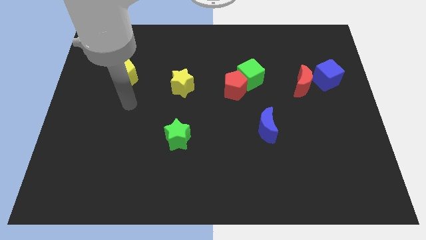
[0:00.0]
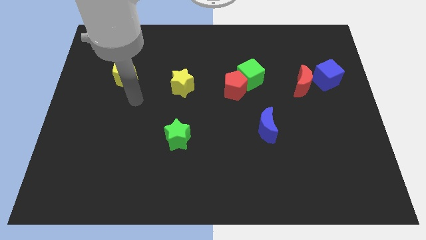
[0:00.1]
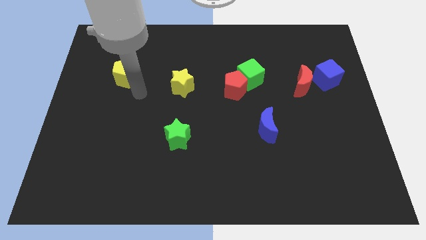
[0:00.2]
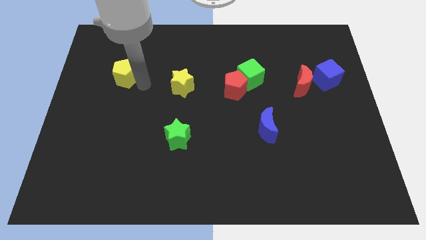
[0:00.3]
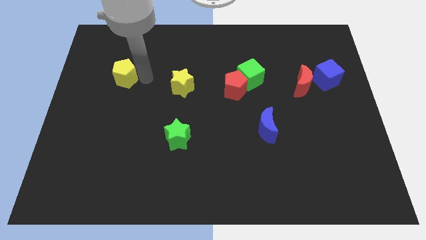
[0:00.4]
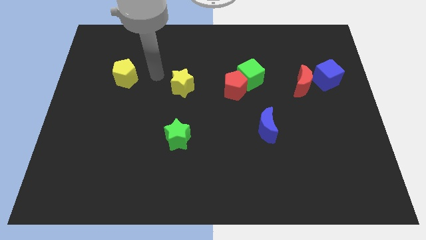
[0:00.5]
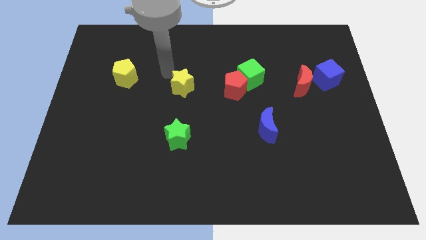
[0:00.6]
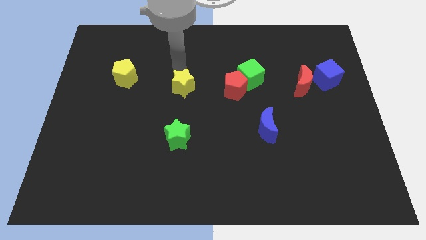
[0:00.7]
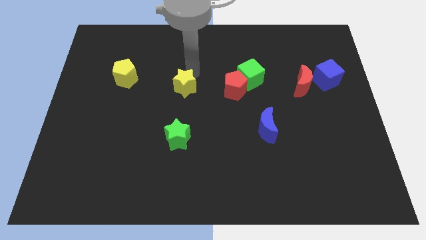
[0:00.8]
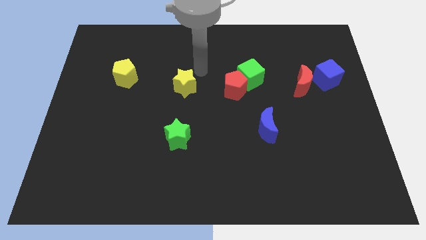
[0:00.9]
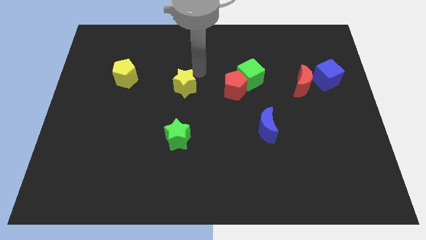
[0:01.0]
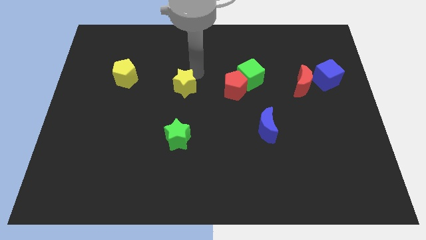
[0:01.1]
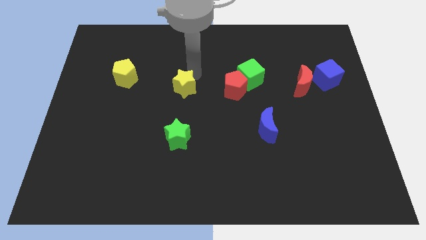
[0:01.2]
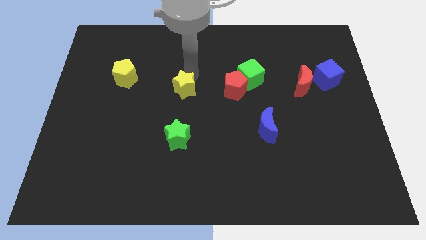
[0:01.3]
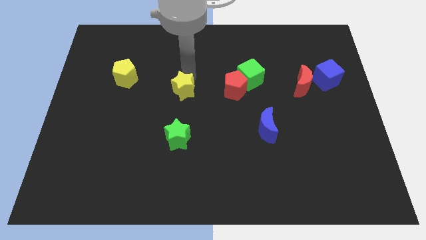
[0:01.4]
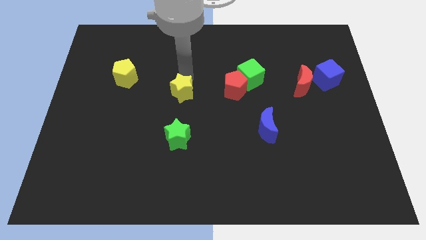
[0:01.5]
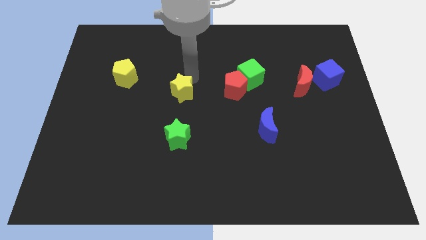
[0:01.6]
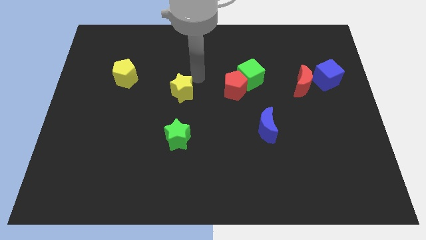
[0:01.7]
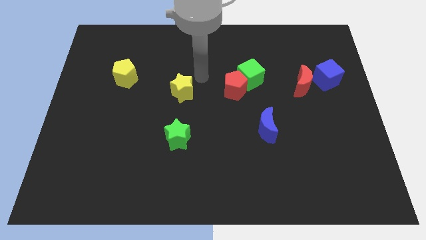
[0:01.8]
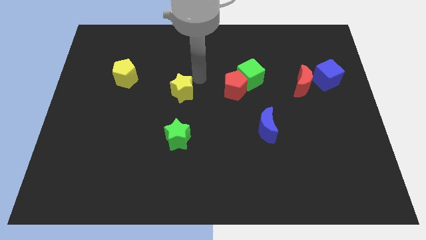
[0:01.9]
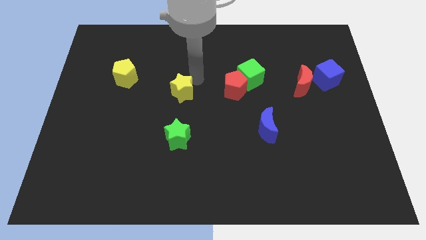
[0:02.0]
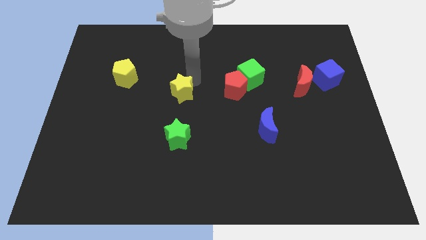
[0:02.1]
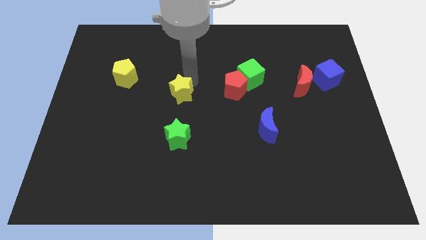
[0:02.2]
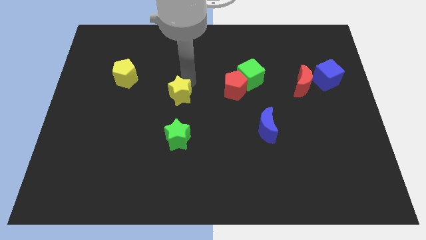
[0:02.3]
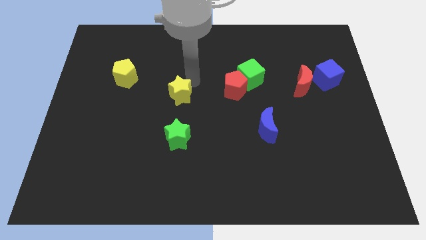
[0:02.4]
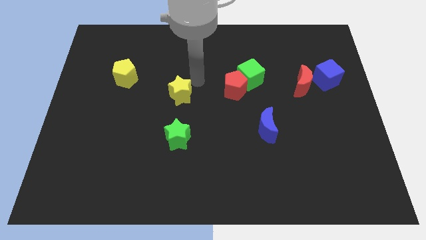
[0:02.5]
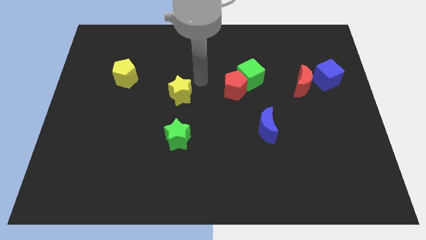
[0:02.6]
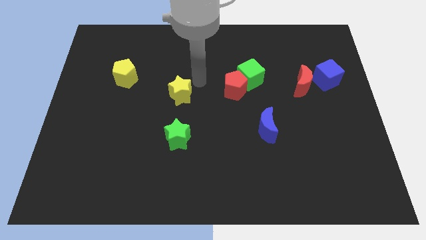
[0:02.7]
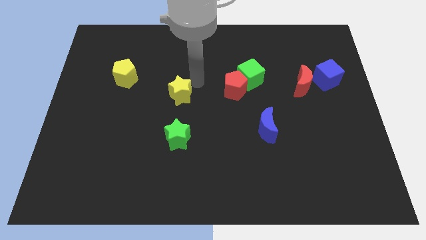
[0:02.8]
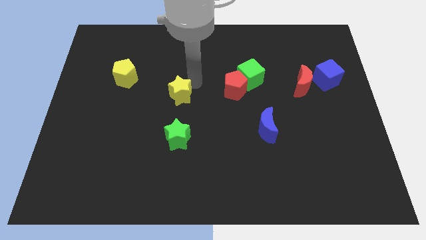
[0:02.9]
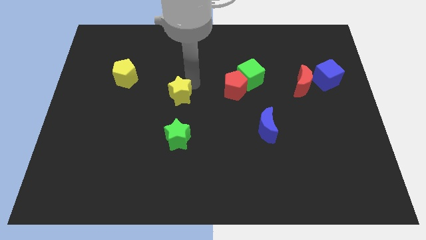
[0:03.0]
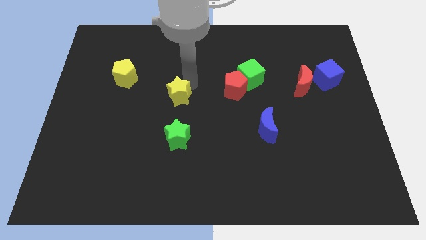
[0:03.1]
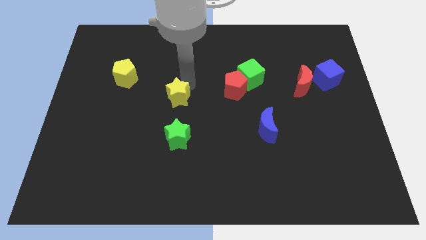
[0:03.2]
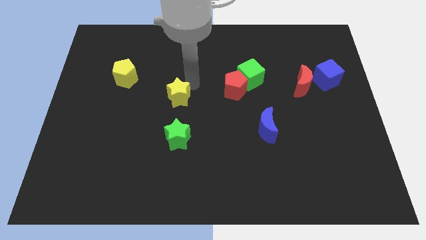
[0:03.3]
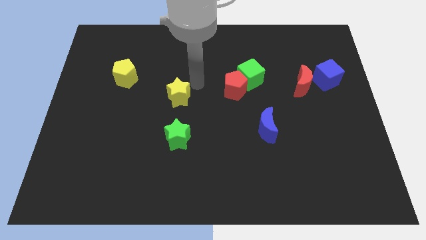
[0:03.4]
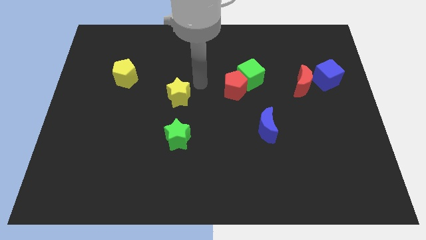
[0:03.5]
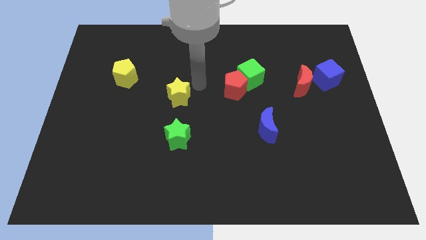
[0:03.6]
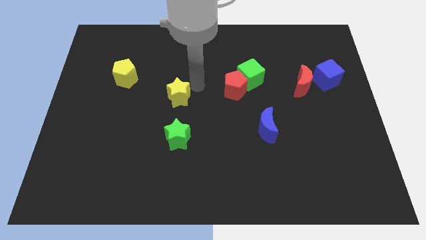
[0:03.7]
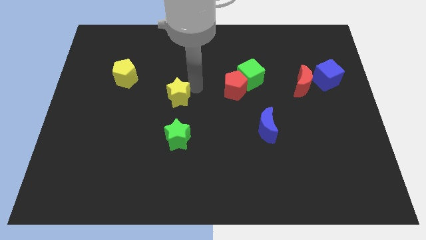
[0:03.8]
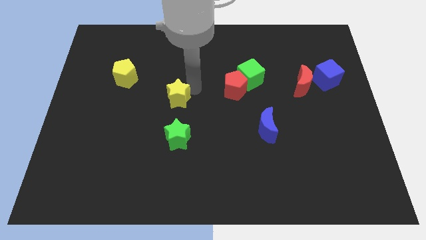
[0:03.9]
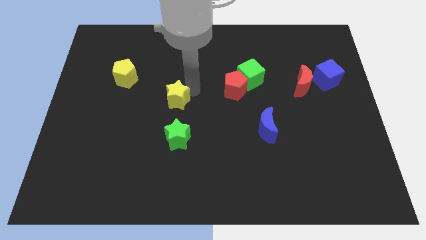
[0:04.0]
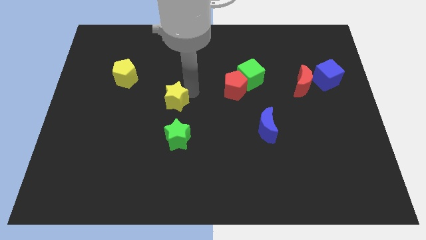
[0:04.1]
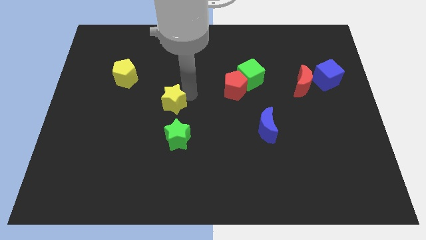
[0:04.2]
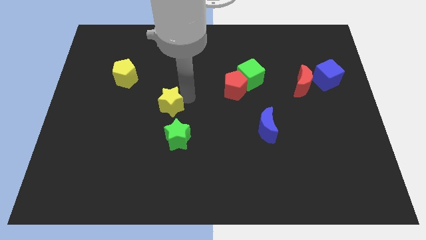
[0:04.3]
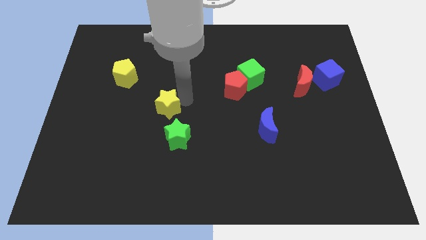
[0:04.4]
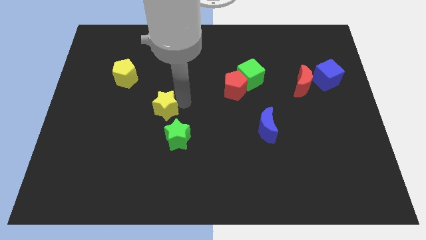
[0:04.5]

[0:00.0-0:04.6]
push the yellow star slightly downwards and then to the left

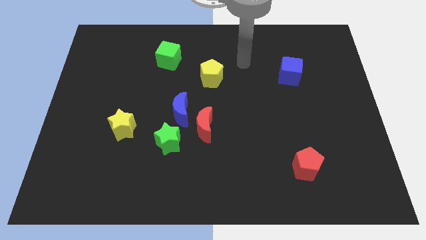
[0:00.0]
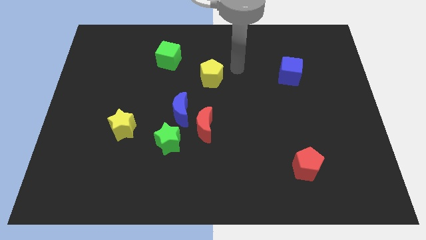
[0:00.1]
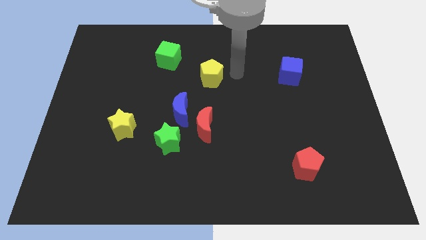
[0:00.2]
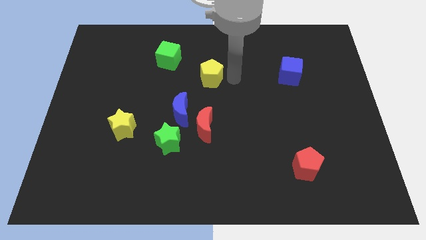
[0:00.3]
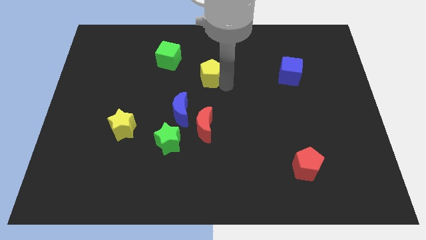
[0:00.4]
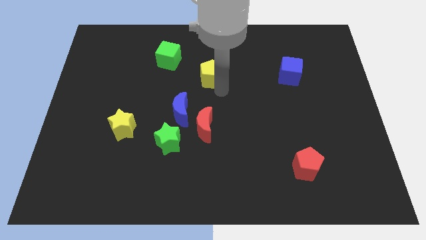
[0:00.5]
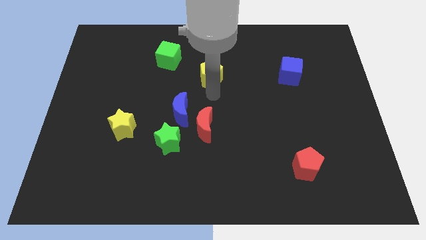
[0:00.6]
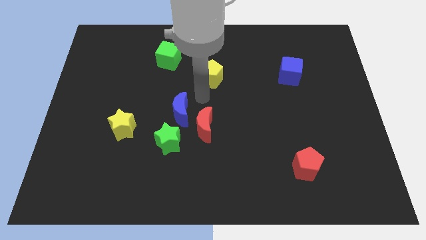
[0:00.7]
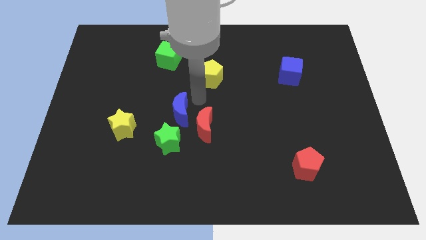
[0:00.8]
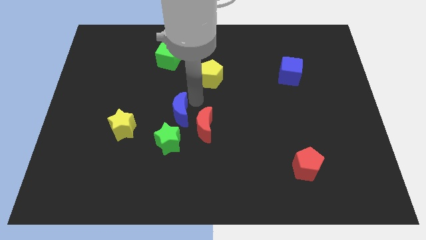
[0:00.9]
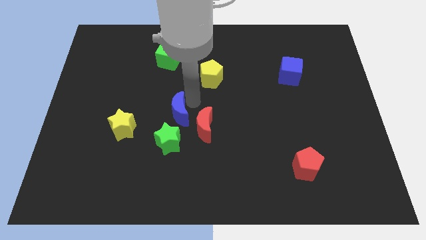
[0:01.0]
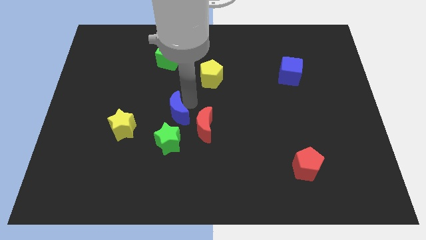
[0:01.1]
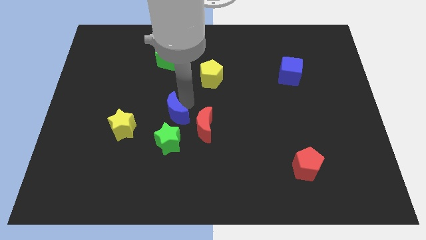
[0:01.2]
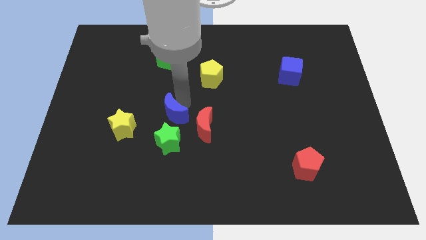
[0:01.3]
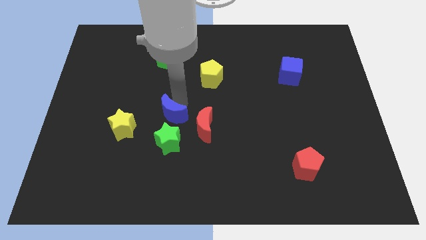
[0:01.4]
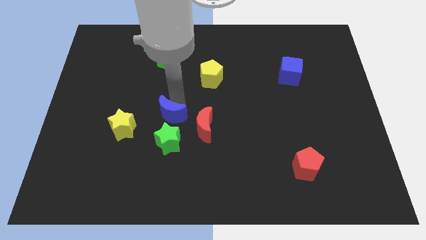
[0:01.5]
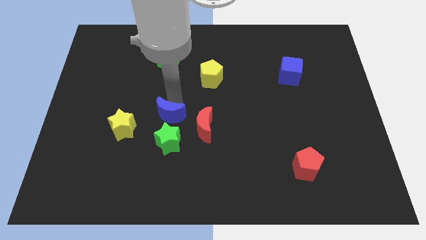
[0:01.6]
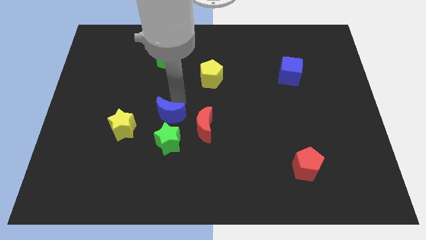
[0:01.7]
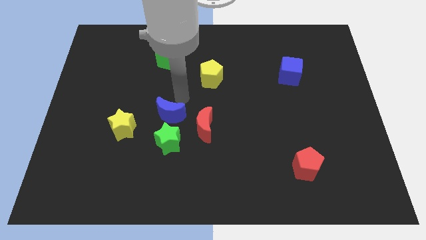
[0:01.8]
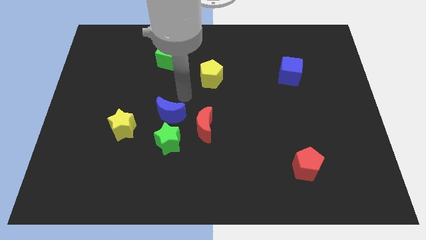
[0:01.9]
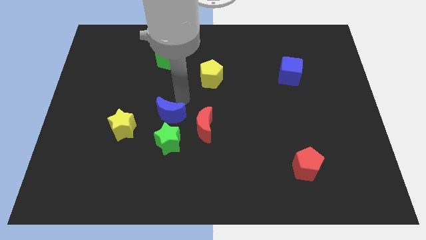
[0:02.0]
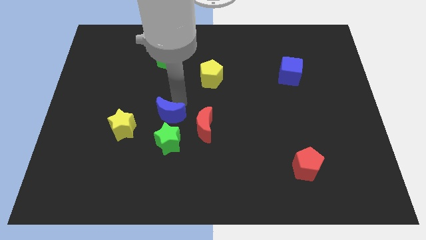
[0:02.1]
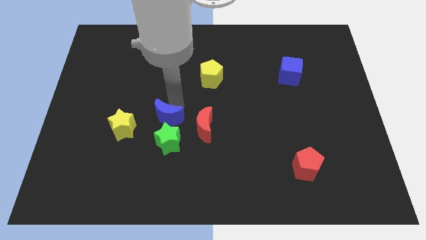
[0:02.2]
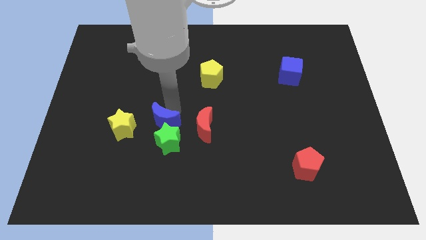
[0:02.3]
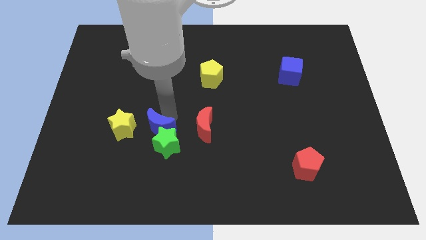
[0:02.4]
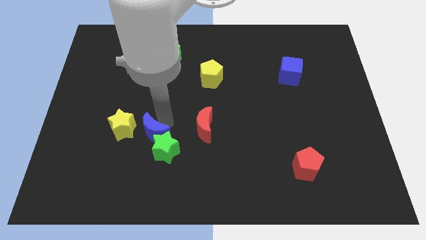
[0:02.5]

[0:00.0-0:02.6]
push the blue moon downwards and left a little bit

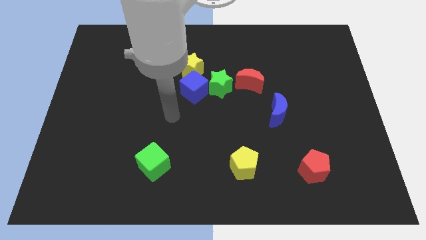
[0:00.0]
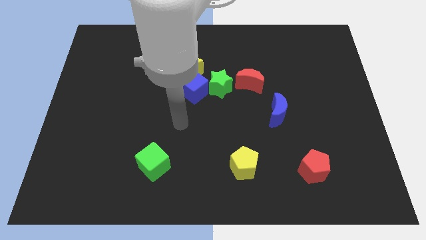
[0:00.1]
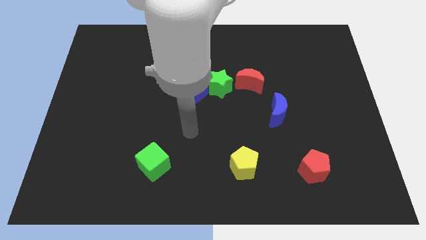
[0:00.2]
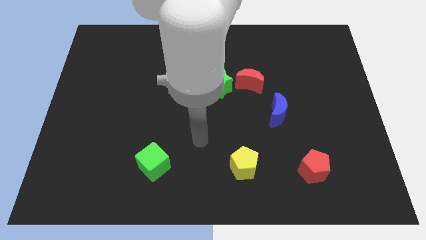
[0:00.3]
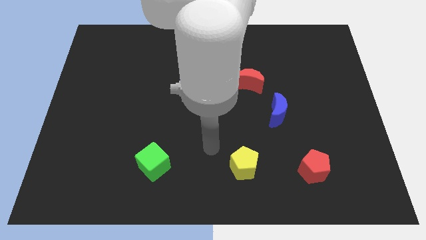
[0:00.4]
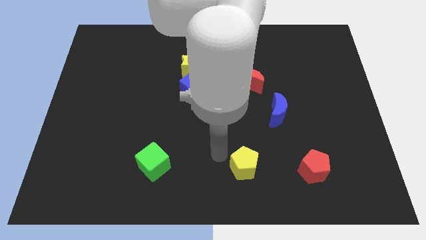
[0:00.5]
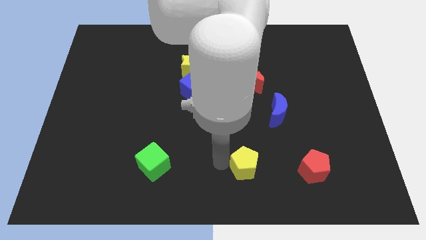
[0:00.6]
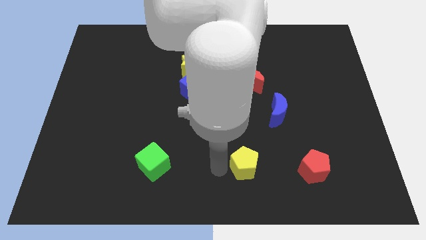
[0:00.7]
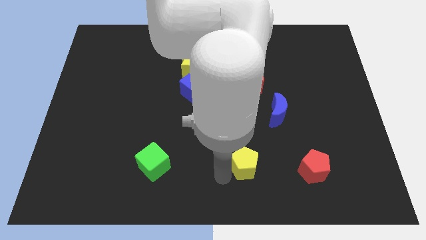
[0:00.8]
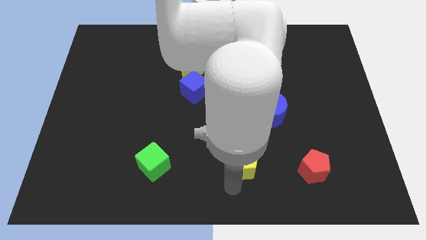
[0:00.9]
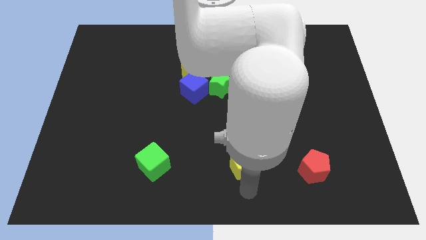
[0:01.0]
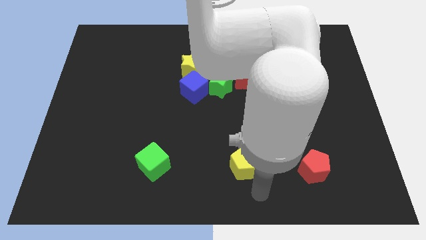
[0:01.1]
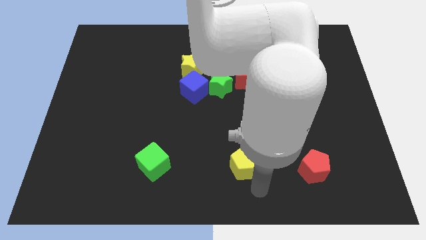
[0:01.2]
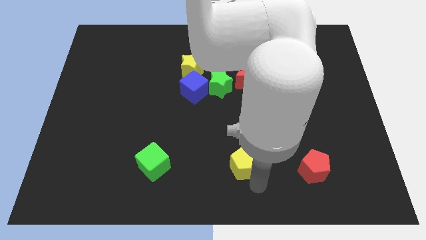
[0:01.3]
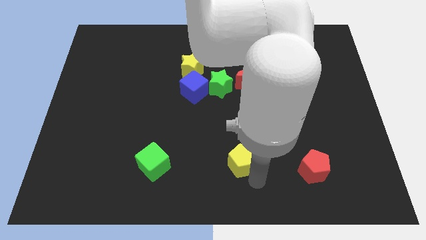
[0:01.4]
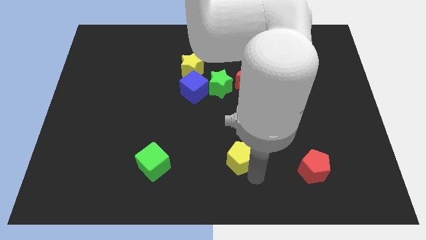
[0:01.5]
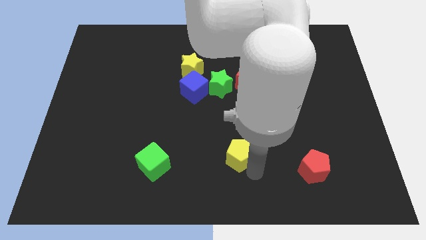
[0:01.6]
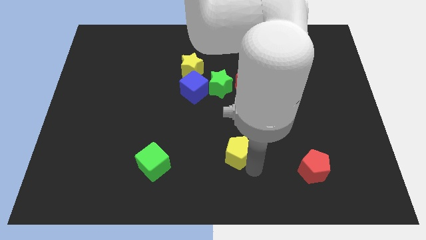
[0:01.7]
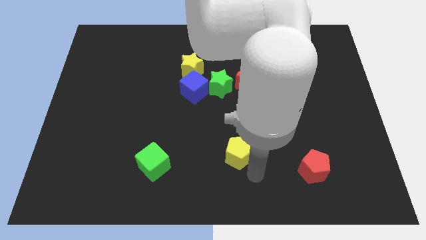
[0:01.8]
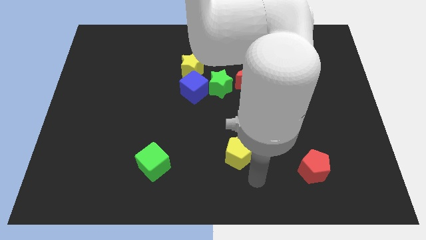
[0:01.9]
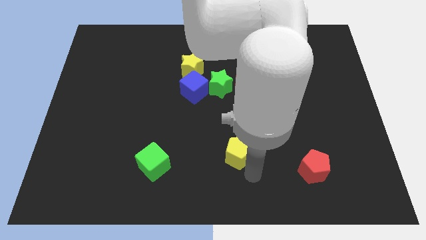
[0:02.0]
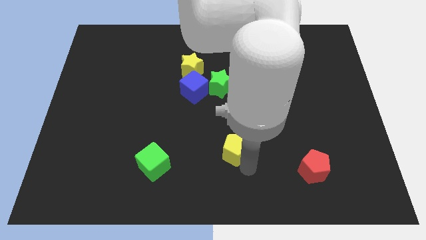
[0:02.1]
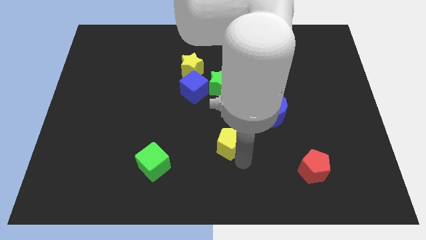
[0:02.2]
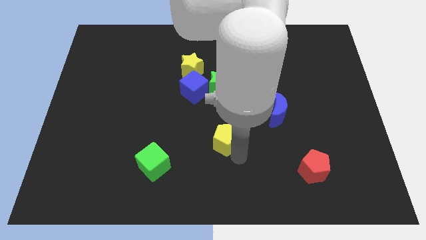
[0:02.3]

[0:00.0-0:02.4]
push the yellow pentagon up and then left slightly
